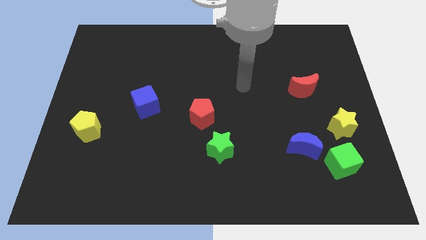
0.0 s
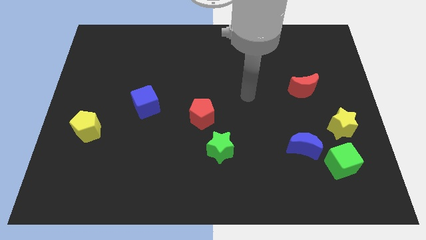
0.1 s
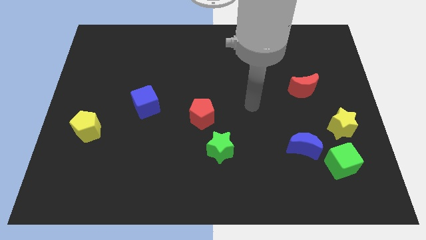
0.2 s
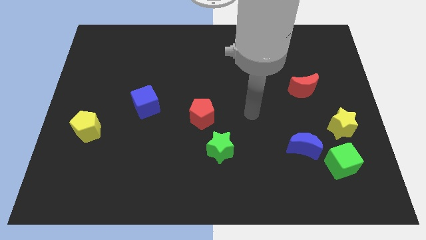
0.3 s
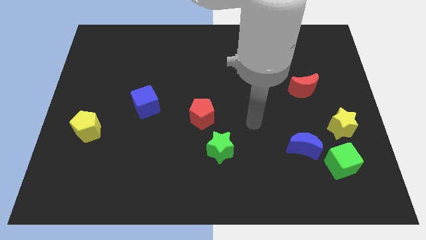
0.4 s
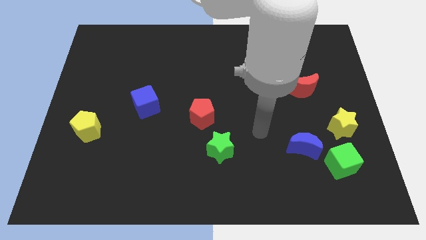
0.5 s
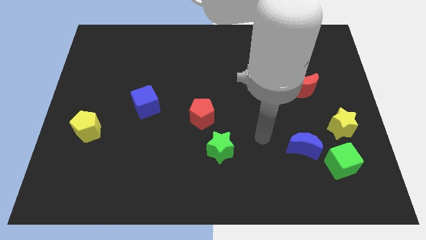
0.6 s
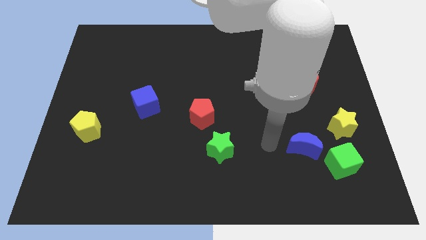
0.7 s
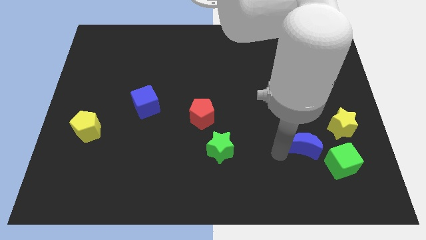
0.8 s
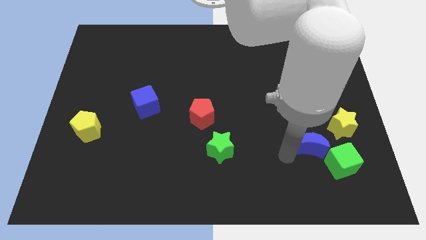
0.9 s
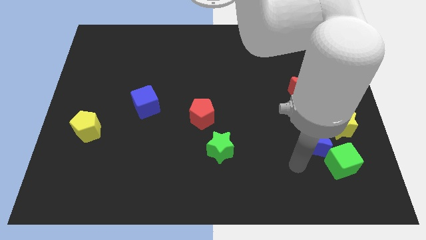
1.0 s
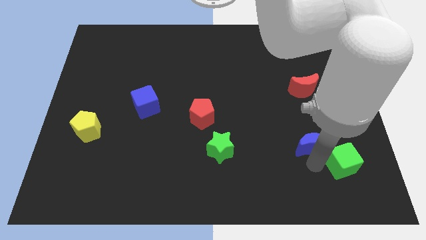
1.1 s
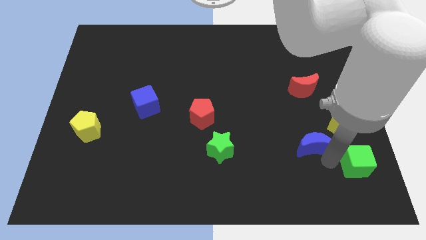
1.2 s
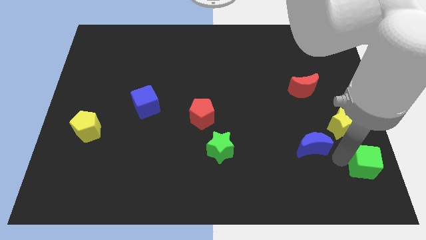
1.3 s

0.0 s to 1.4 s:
pull the blue moon apart from the green cube

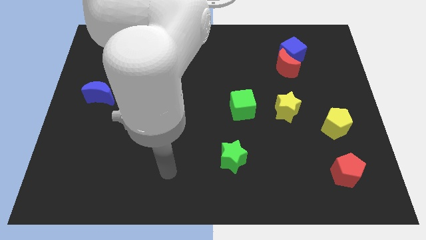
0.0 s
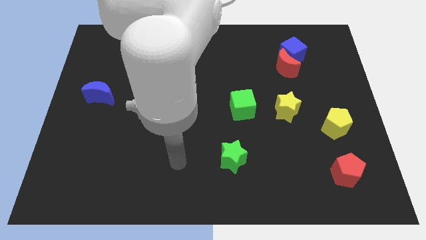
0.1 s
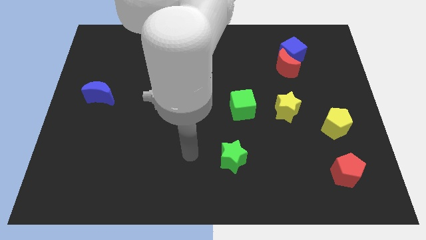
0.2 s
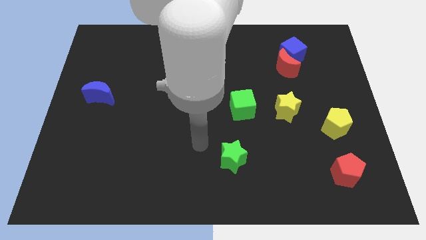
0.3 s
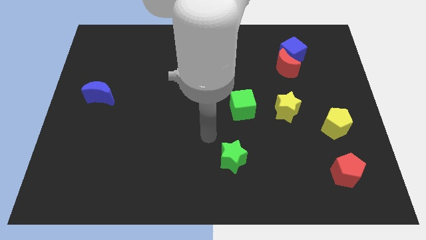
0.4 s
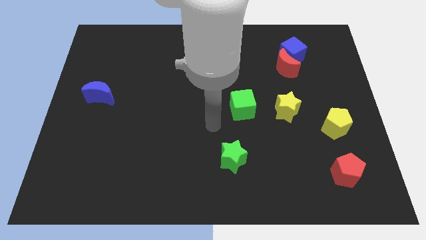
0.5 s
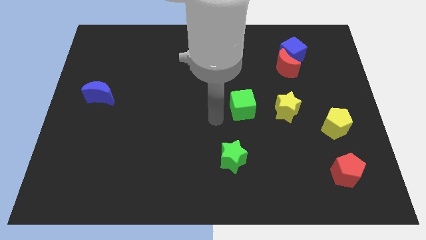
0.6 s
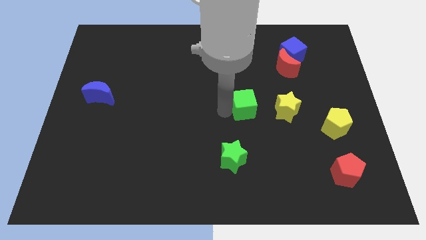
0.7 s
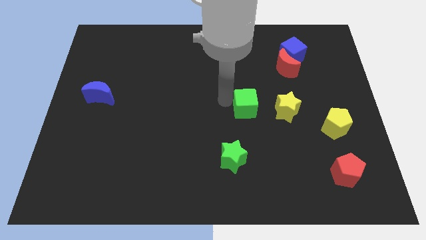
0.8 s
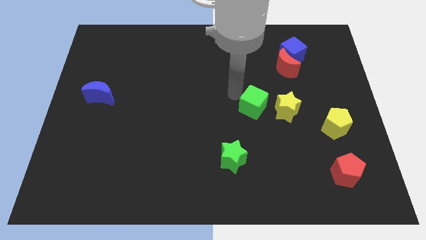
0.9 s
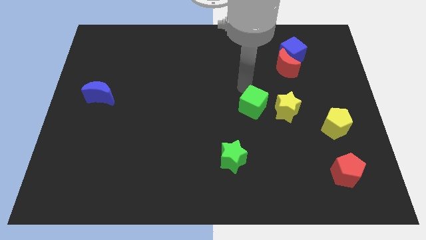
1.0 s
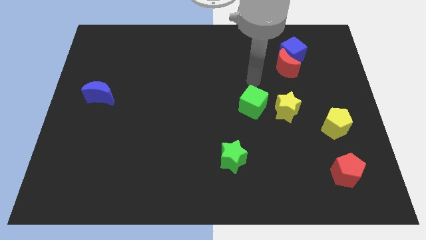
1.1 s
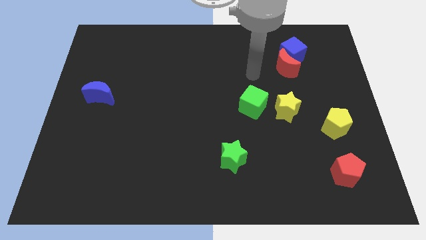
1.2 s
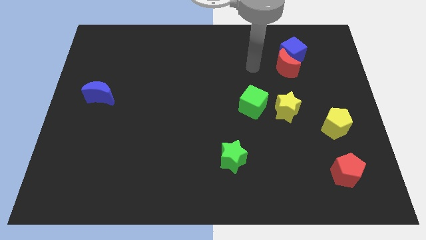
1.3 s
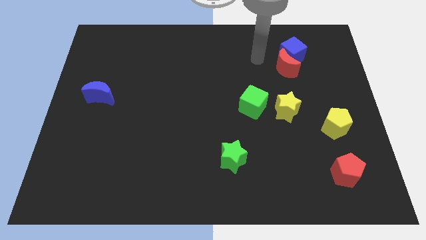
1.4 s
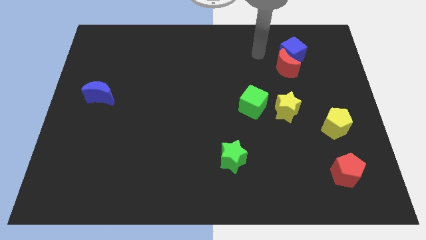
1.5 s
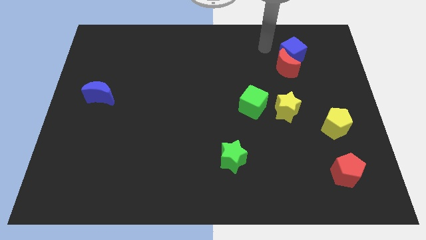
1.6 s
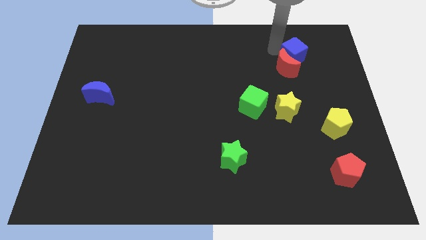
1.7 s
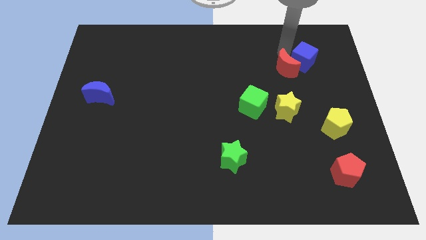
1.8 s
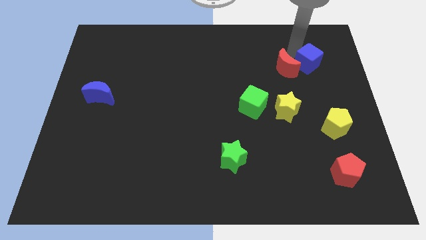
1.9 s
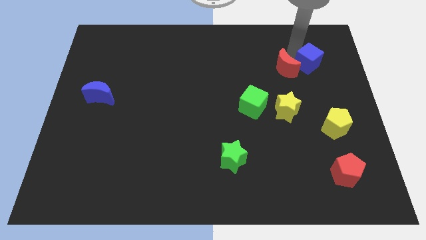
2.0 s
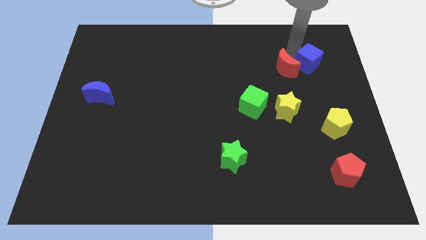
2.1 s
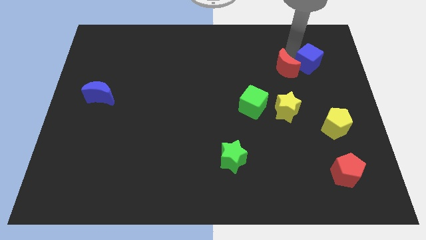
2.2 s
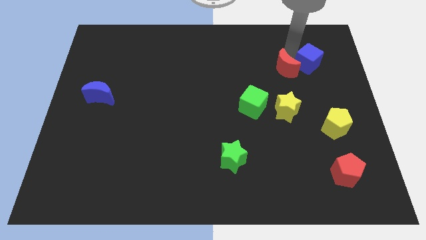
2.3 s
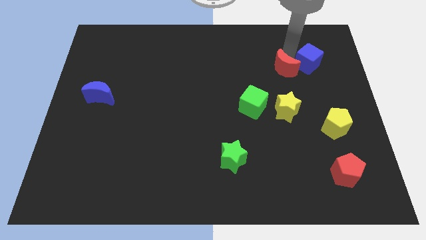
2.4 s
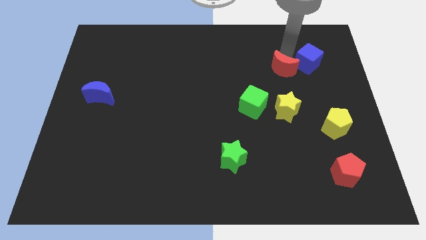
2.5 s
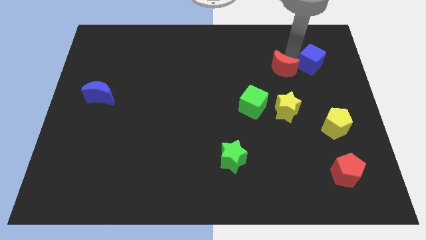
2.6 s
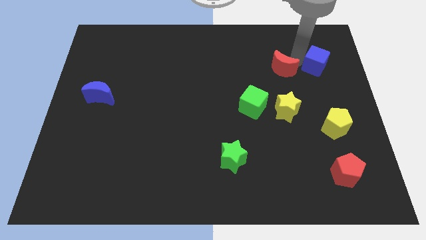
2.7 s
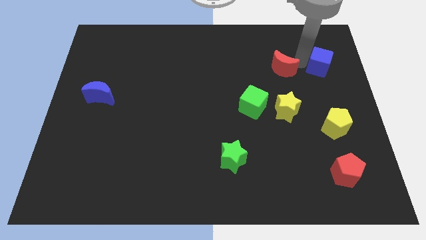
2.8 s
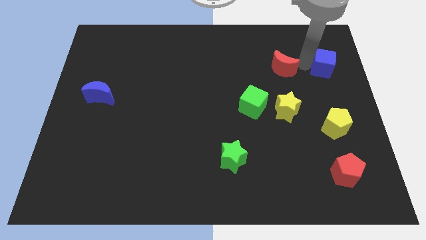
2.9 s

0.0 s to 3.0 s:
separate the red moon from the blue cube

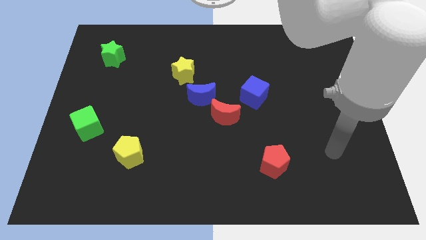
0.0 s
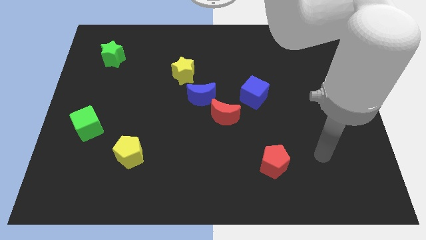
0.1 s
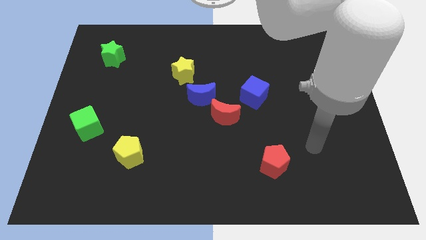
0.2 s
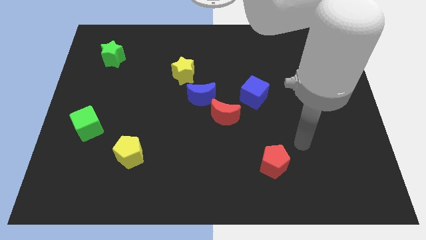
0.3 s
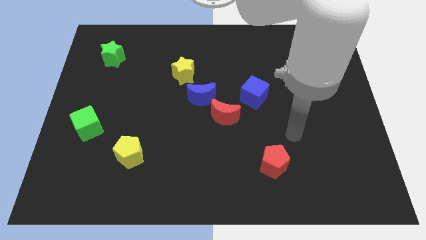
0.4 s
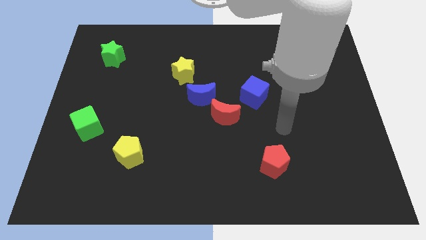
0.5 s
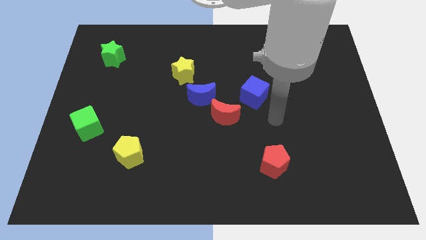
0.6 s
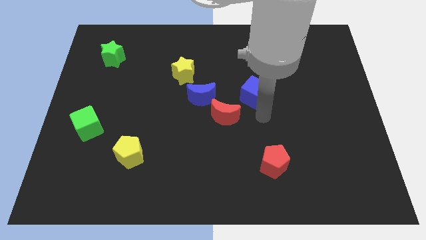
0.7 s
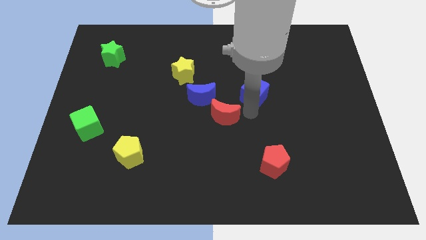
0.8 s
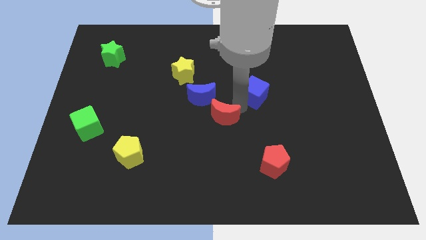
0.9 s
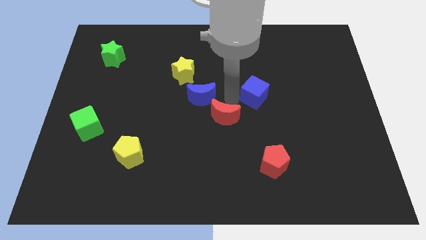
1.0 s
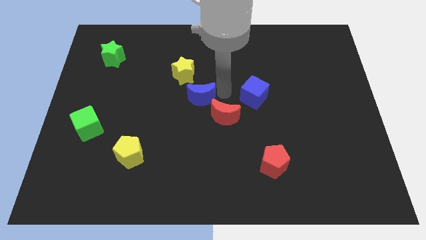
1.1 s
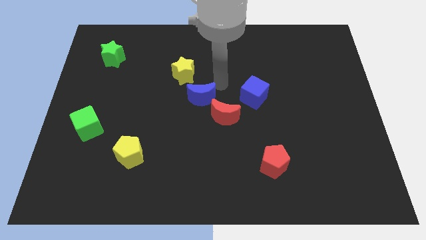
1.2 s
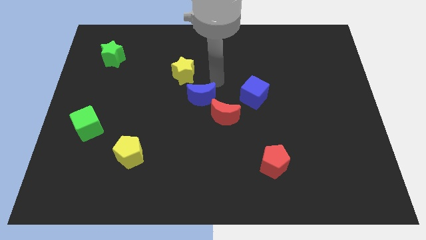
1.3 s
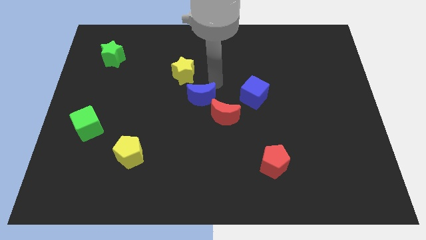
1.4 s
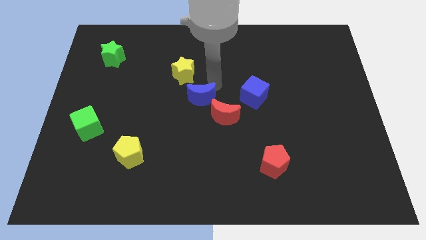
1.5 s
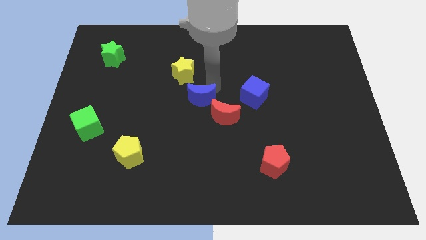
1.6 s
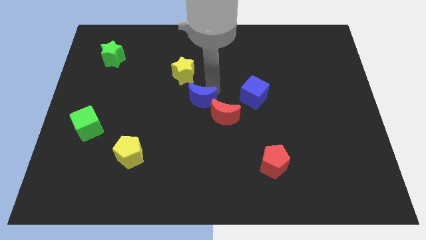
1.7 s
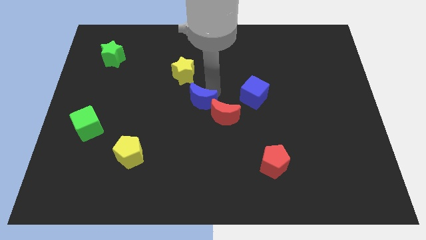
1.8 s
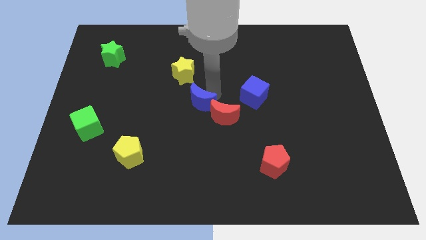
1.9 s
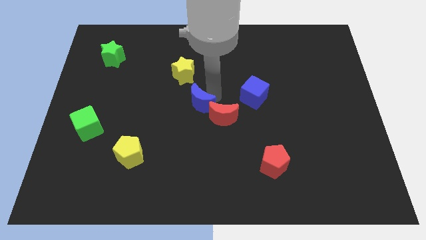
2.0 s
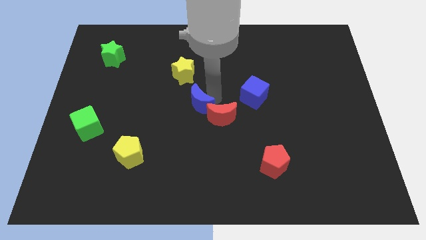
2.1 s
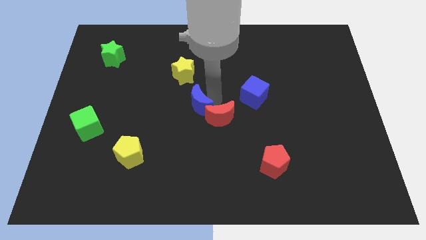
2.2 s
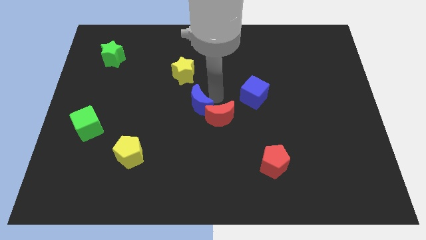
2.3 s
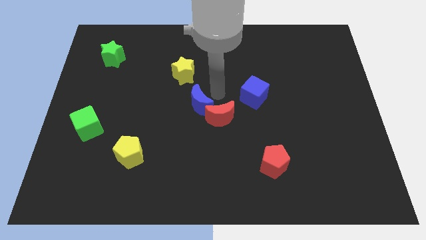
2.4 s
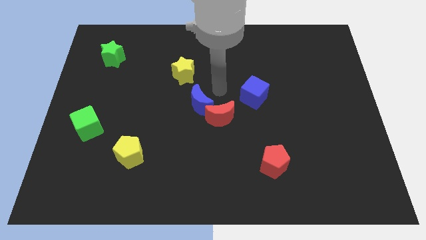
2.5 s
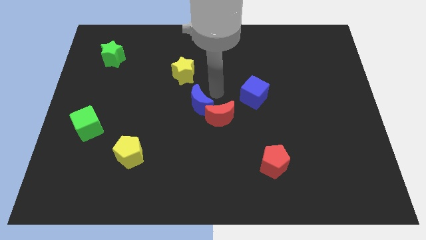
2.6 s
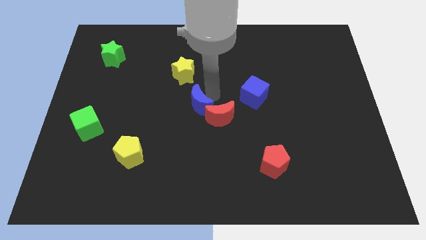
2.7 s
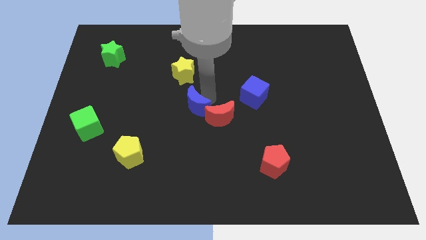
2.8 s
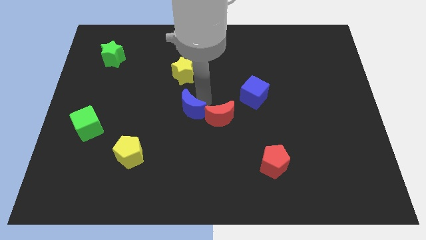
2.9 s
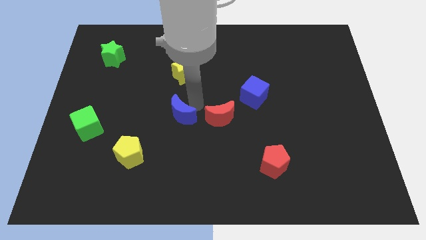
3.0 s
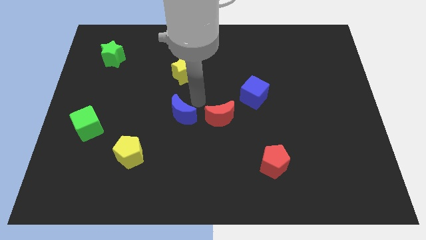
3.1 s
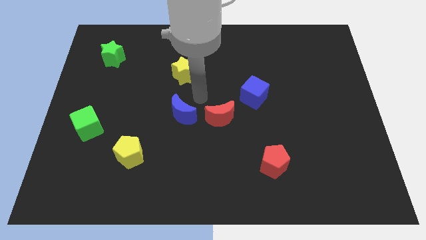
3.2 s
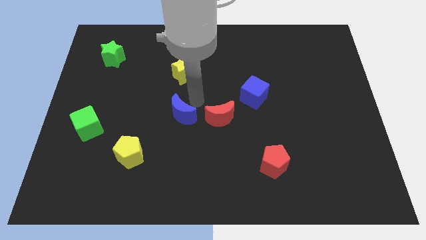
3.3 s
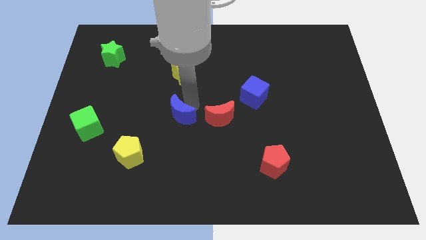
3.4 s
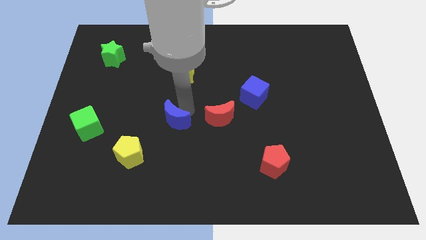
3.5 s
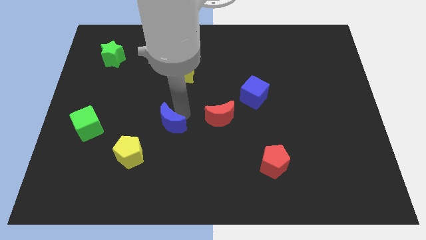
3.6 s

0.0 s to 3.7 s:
pull the blue moon apart from the red moon and yellow star

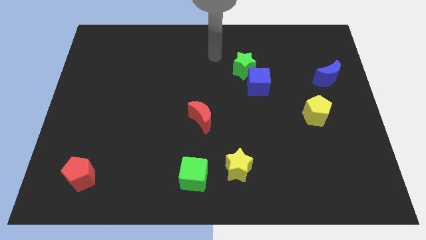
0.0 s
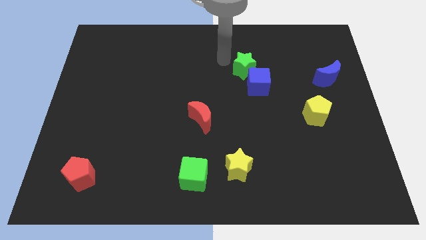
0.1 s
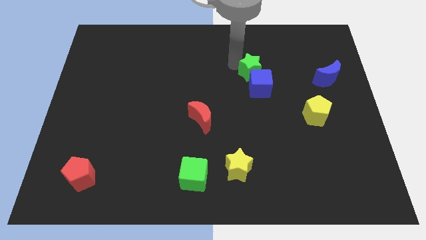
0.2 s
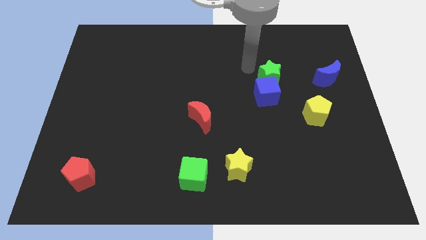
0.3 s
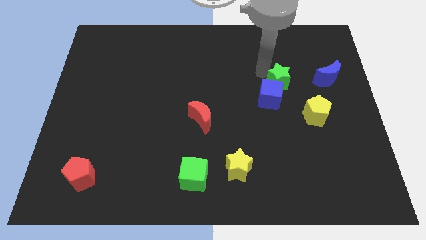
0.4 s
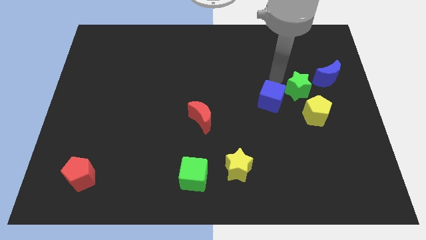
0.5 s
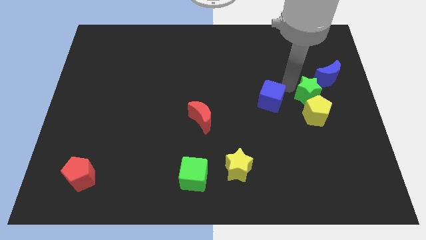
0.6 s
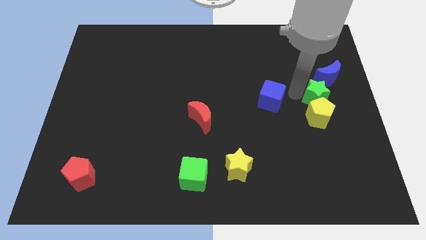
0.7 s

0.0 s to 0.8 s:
move the blue cube away from the green star

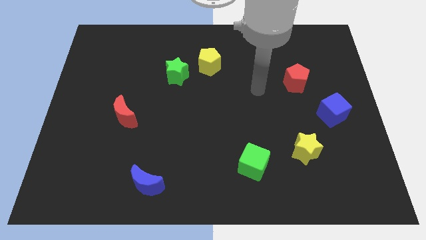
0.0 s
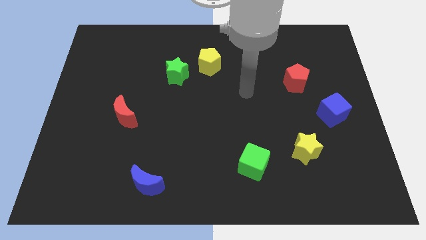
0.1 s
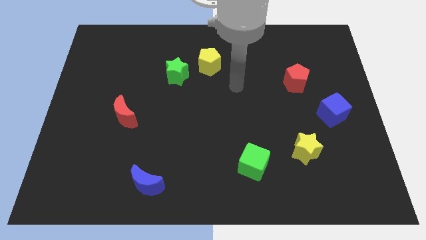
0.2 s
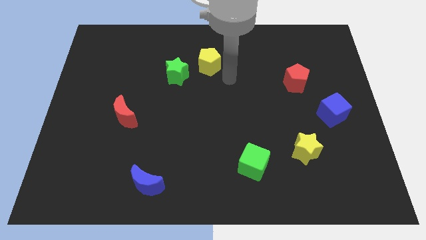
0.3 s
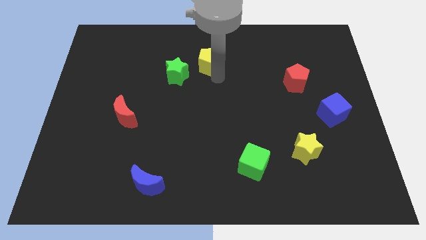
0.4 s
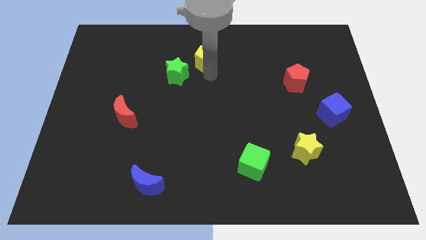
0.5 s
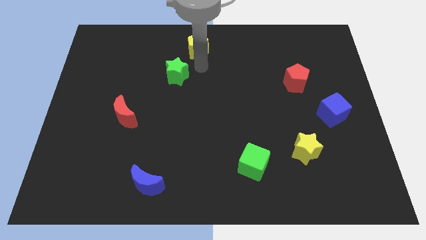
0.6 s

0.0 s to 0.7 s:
pull the green star apart from the yellow pentagon
